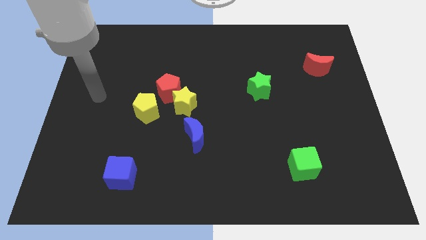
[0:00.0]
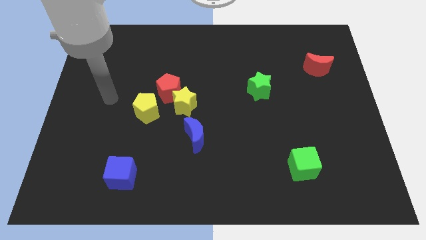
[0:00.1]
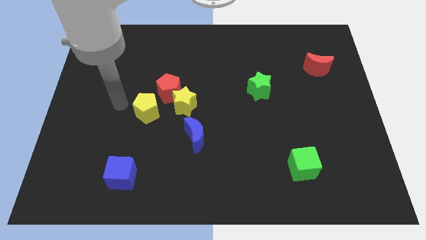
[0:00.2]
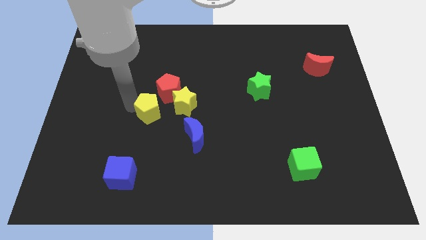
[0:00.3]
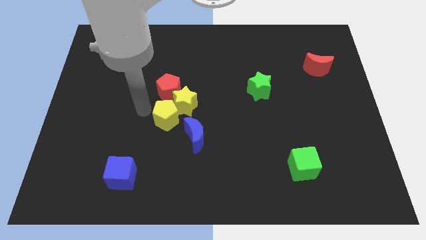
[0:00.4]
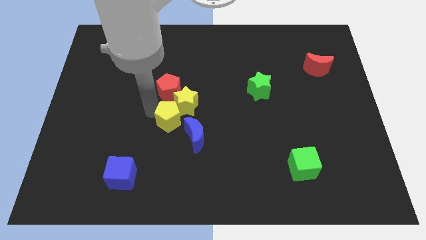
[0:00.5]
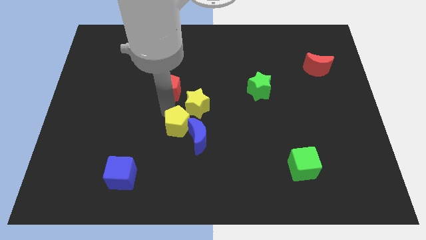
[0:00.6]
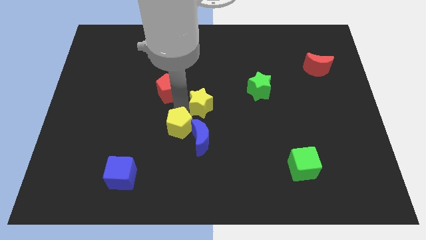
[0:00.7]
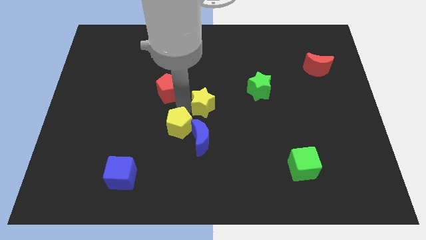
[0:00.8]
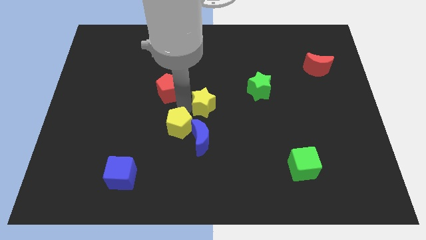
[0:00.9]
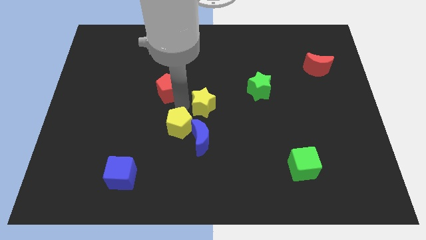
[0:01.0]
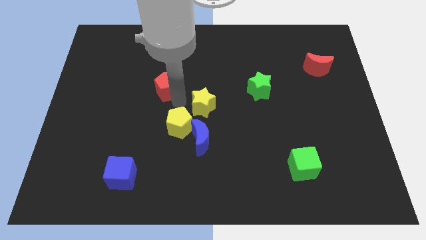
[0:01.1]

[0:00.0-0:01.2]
pull the red pentagon apart from the yellow star and yellow pentagon

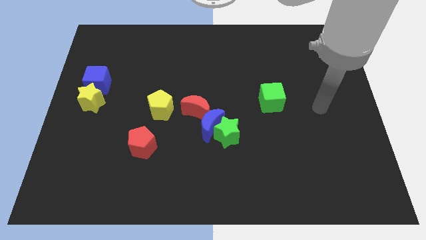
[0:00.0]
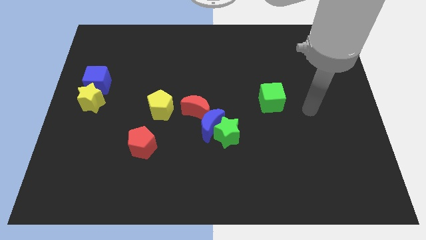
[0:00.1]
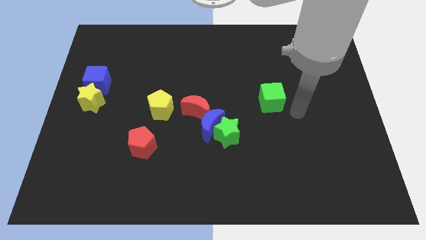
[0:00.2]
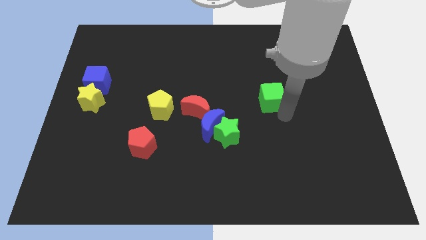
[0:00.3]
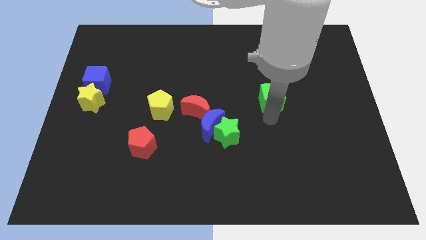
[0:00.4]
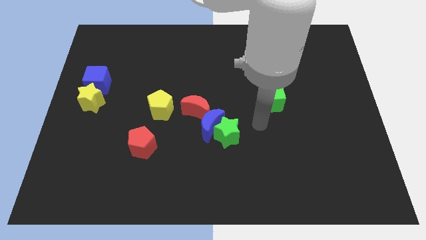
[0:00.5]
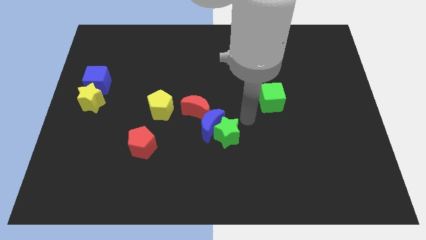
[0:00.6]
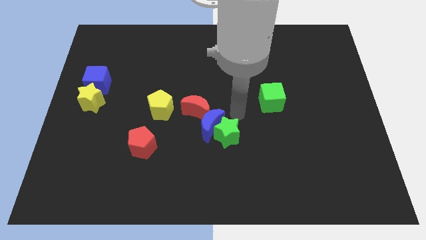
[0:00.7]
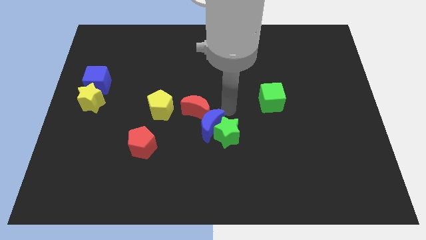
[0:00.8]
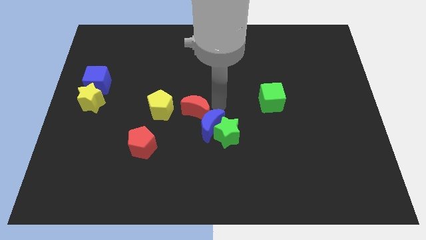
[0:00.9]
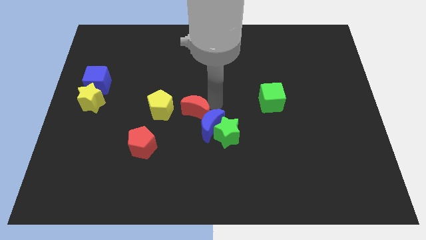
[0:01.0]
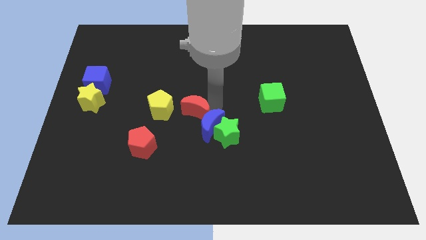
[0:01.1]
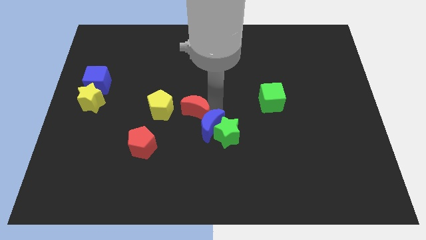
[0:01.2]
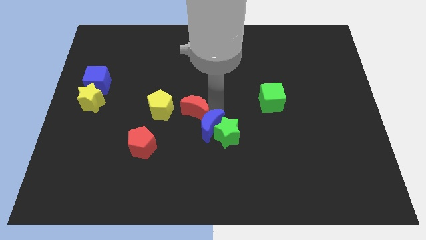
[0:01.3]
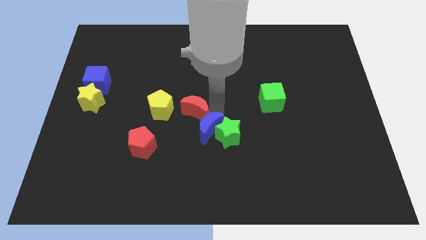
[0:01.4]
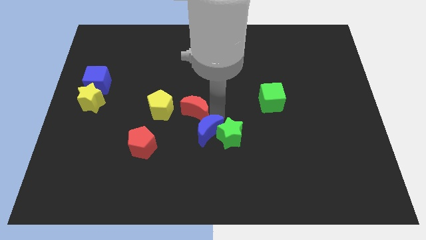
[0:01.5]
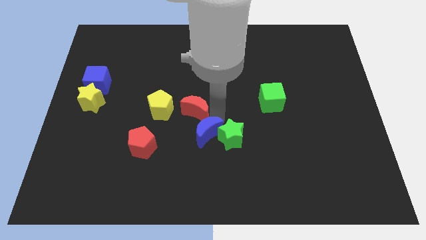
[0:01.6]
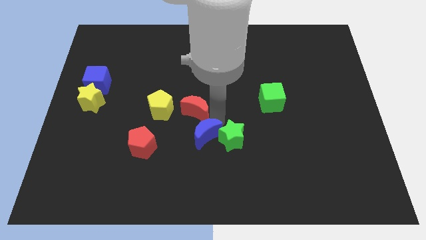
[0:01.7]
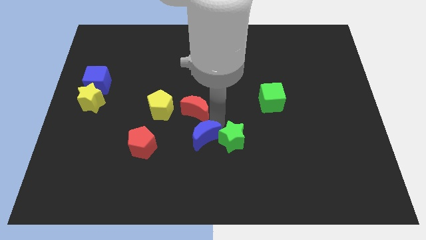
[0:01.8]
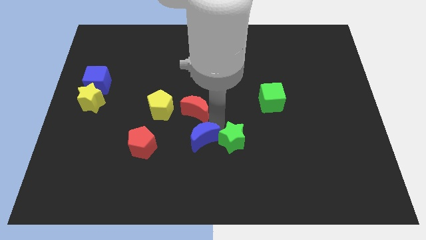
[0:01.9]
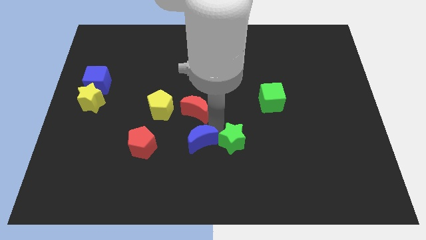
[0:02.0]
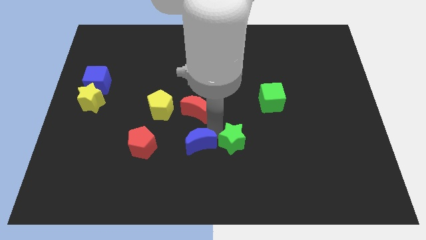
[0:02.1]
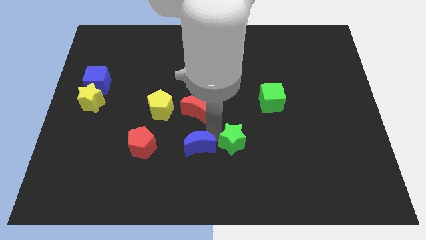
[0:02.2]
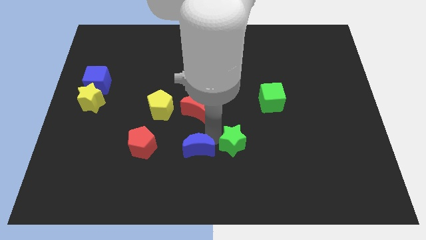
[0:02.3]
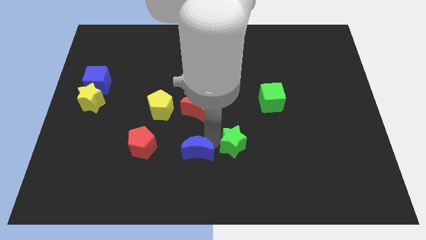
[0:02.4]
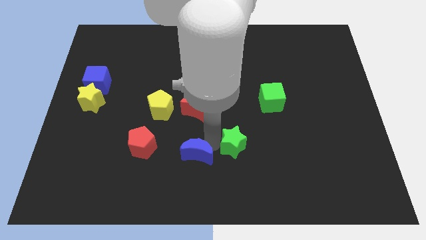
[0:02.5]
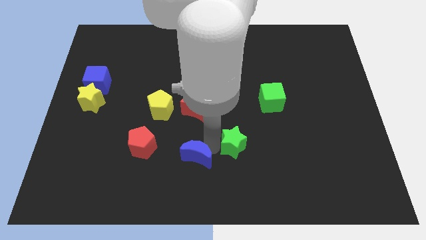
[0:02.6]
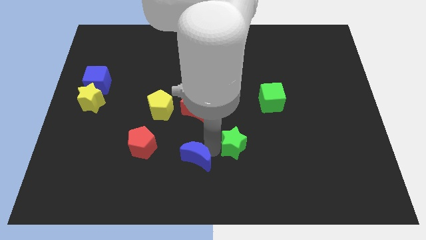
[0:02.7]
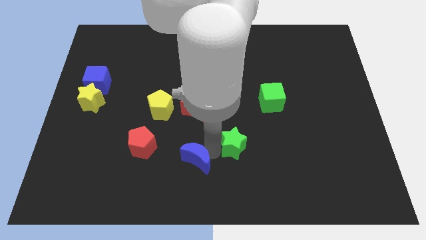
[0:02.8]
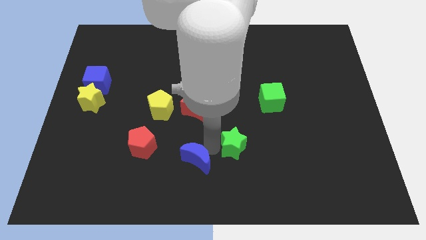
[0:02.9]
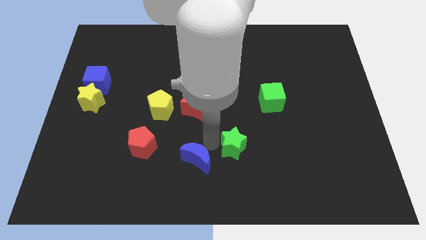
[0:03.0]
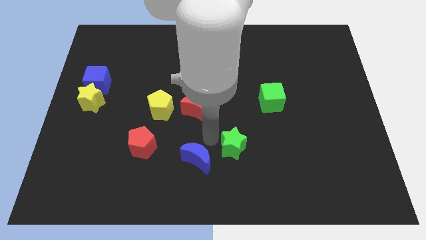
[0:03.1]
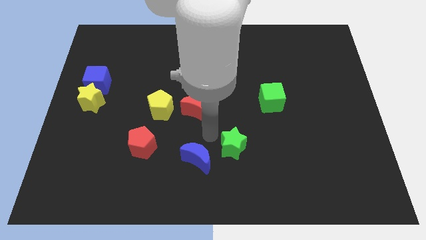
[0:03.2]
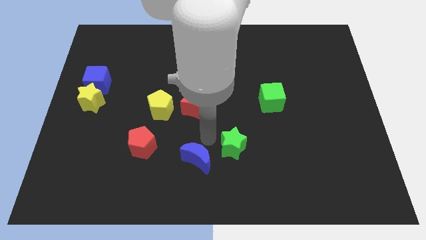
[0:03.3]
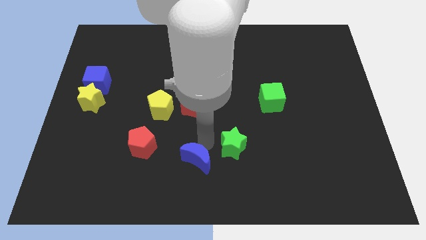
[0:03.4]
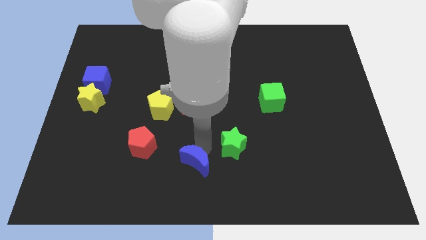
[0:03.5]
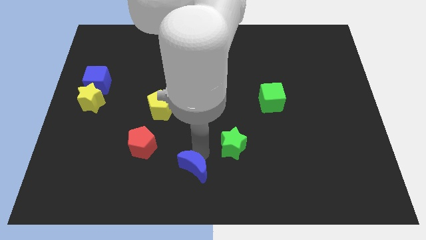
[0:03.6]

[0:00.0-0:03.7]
pull the blue moon apart from the green star and red moon

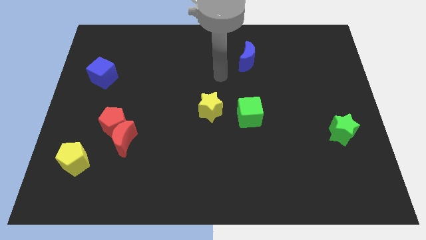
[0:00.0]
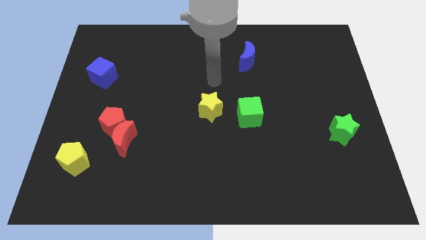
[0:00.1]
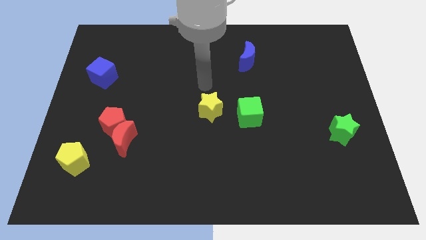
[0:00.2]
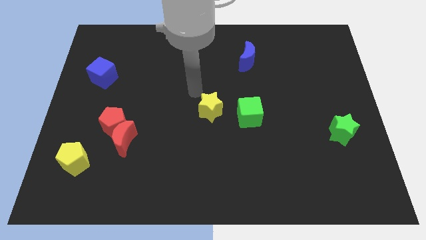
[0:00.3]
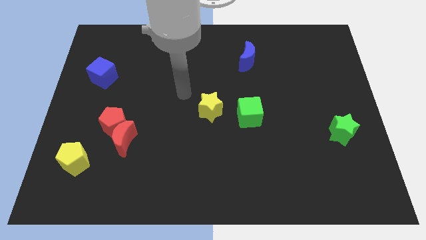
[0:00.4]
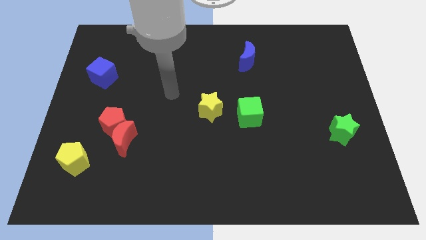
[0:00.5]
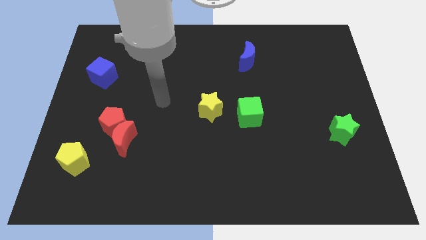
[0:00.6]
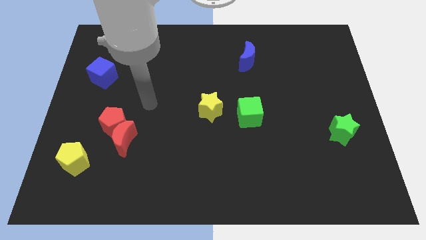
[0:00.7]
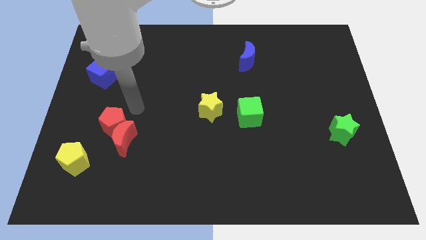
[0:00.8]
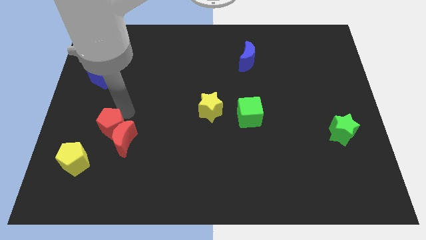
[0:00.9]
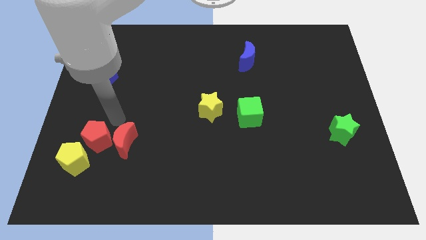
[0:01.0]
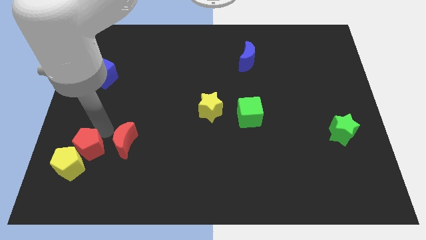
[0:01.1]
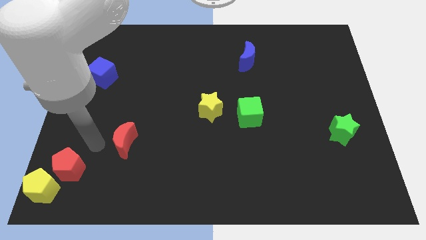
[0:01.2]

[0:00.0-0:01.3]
separate the red moon from the red pentagon

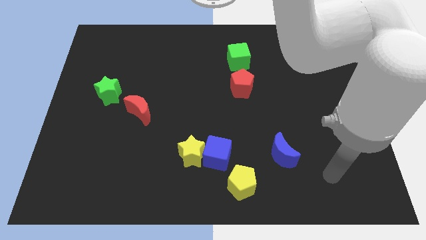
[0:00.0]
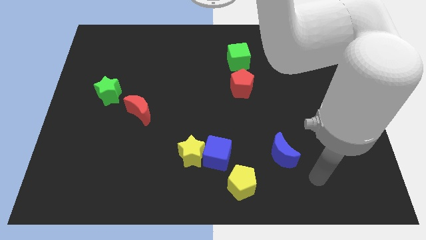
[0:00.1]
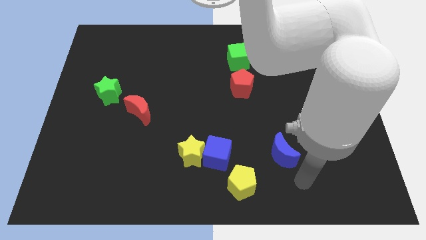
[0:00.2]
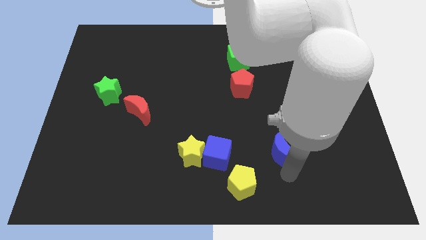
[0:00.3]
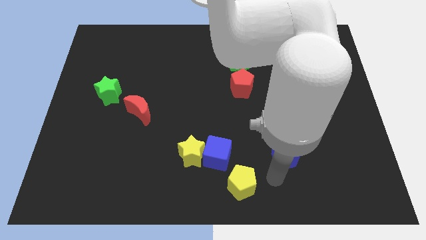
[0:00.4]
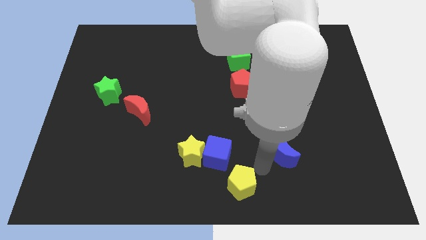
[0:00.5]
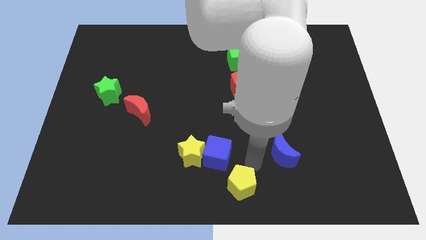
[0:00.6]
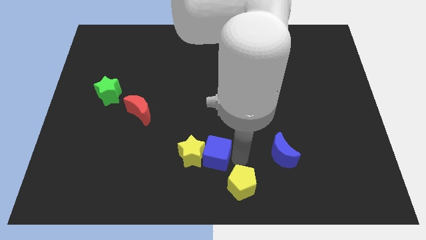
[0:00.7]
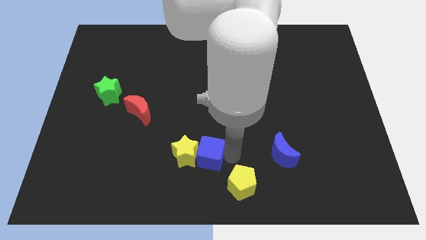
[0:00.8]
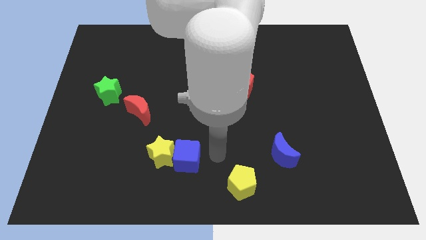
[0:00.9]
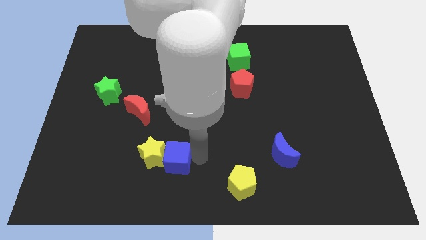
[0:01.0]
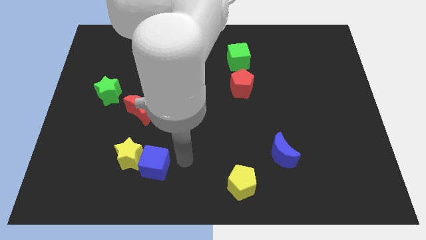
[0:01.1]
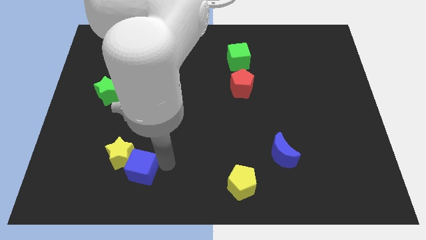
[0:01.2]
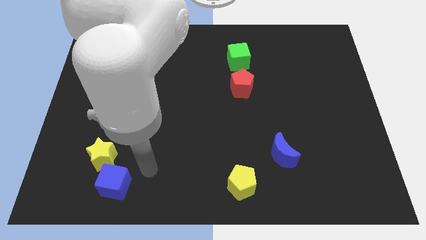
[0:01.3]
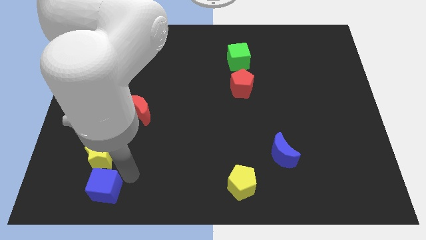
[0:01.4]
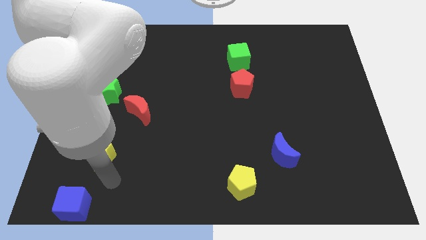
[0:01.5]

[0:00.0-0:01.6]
pull the yellow star apart from the blue cube

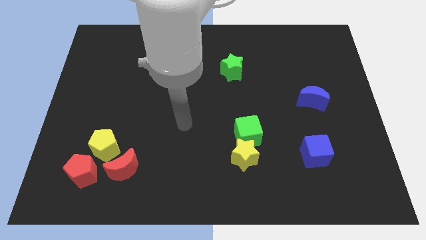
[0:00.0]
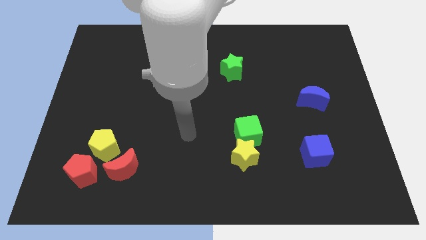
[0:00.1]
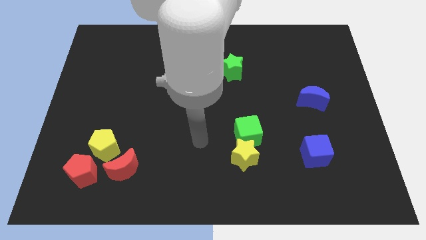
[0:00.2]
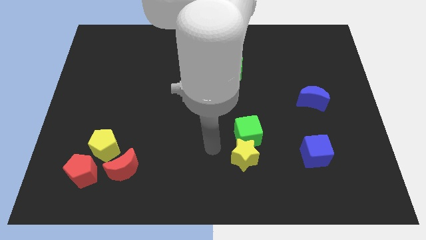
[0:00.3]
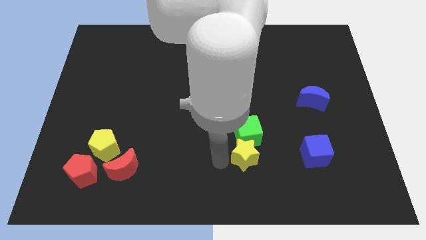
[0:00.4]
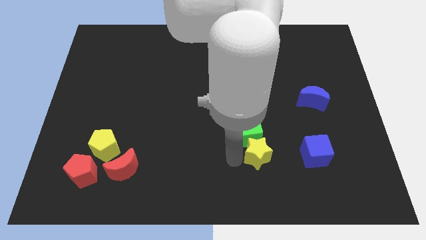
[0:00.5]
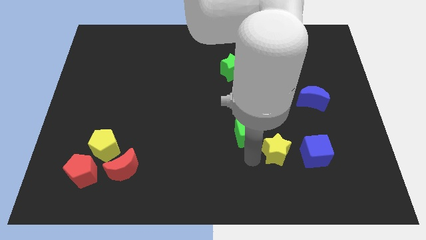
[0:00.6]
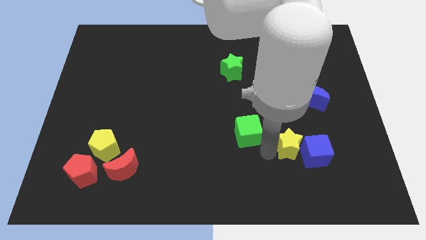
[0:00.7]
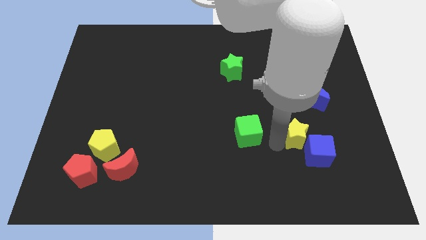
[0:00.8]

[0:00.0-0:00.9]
pull the green cube apart from the yellow star

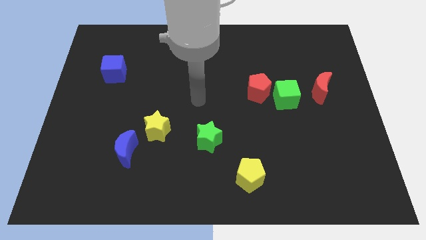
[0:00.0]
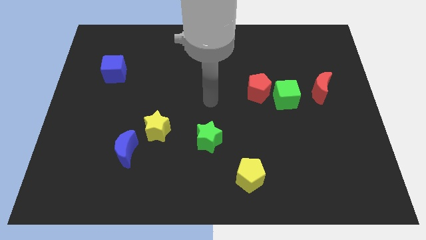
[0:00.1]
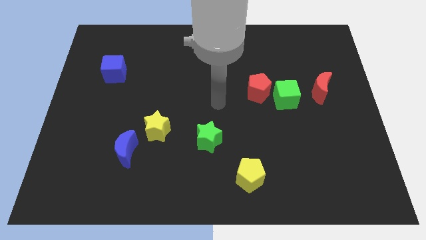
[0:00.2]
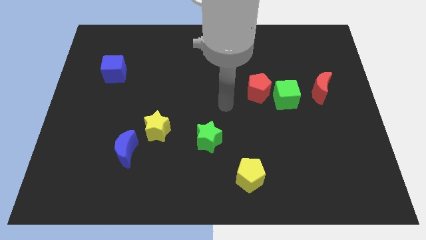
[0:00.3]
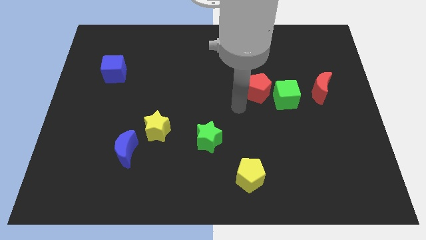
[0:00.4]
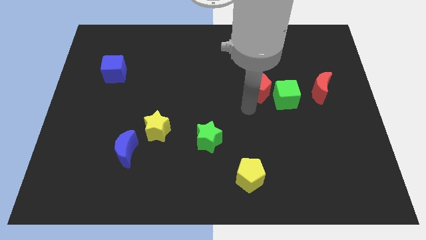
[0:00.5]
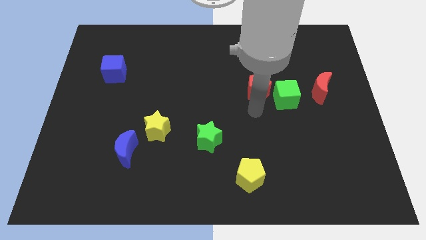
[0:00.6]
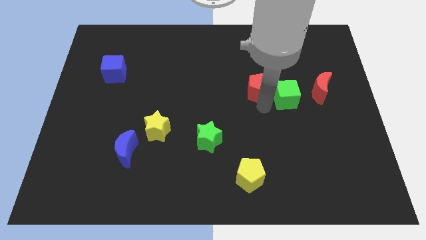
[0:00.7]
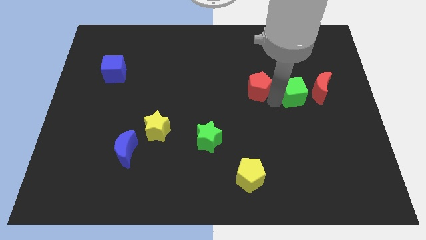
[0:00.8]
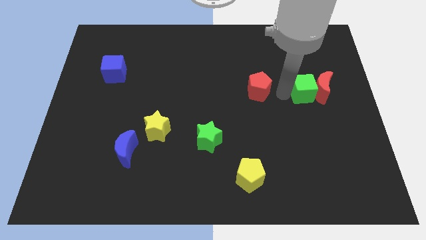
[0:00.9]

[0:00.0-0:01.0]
move the red pentagon away from the green cube
